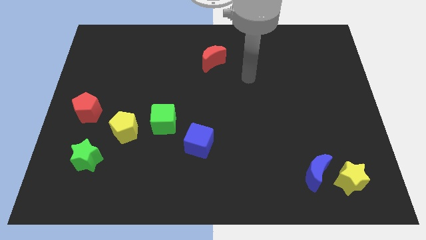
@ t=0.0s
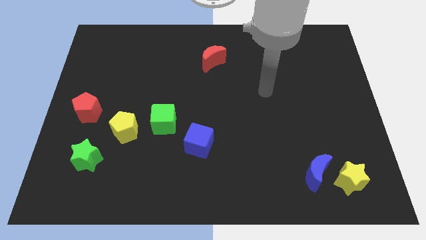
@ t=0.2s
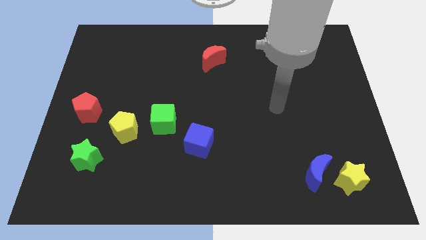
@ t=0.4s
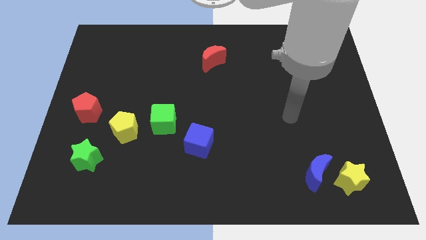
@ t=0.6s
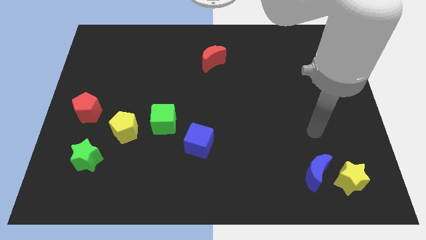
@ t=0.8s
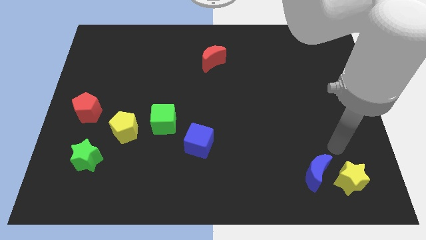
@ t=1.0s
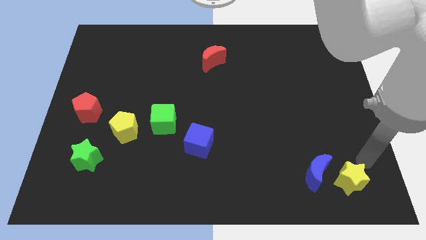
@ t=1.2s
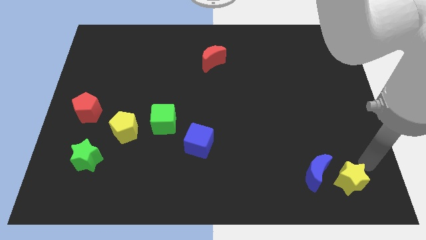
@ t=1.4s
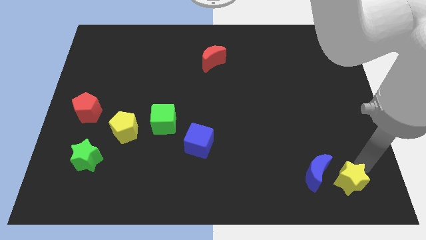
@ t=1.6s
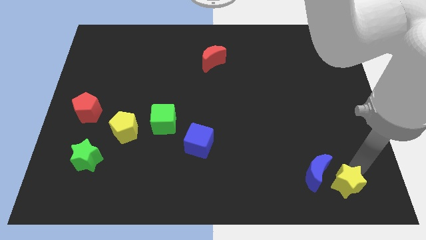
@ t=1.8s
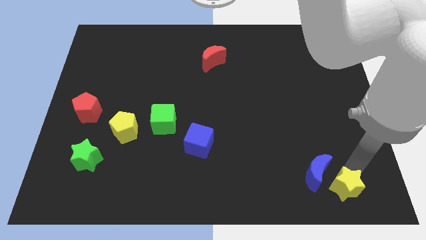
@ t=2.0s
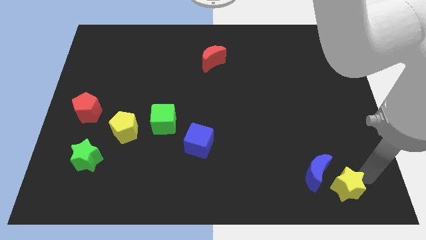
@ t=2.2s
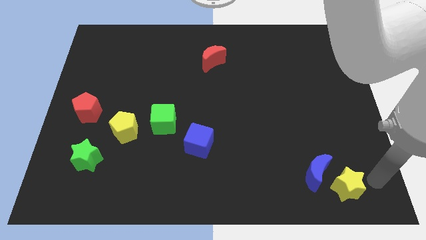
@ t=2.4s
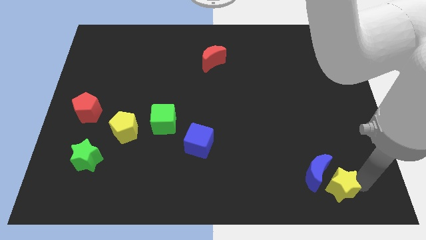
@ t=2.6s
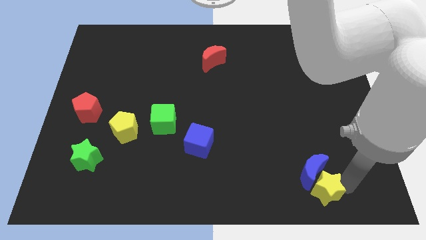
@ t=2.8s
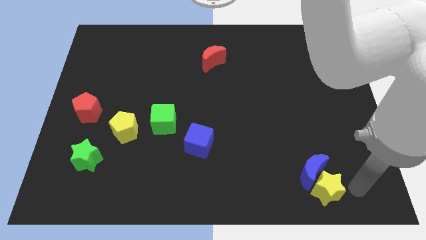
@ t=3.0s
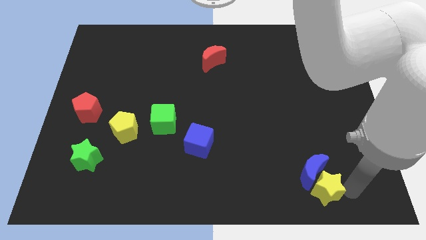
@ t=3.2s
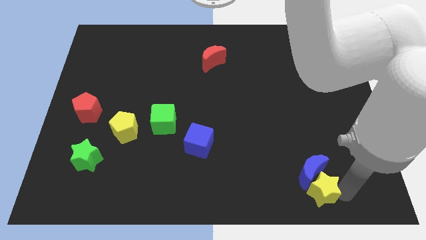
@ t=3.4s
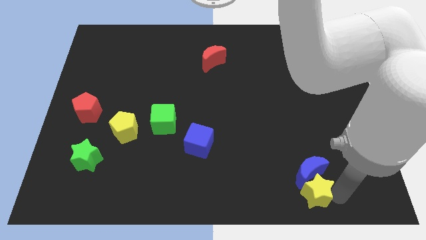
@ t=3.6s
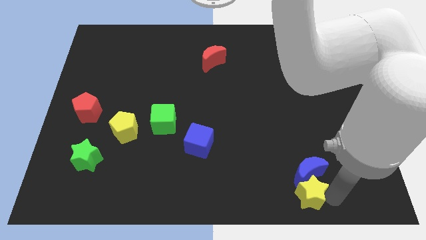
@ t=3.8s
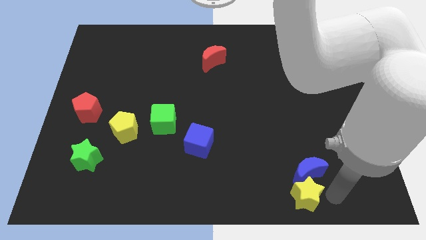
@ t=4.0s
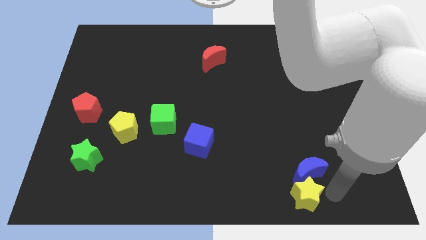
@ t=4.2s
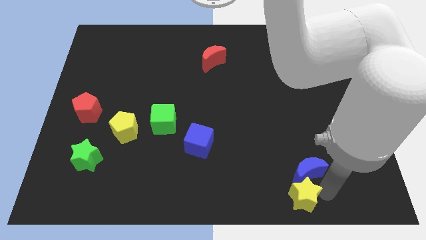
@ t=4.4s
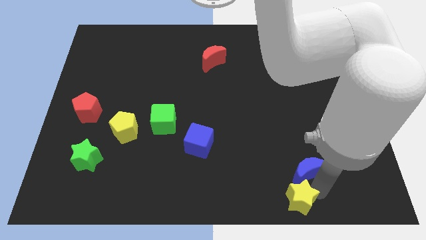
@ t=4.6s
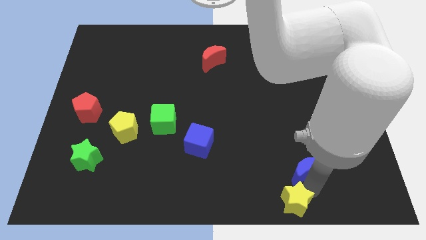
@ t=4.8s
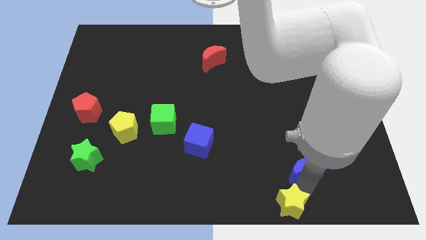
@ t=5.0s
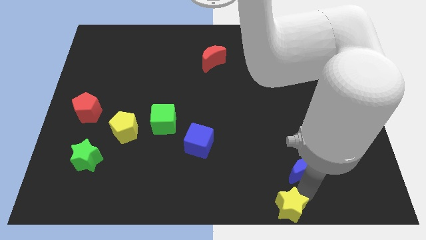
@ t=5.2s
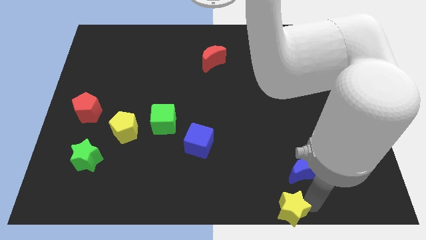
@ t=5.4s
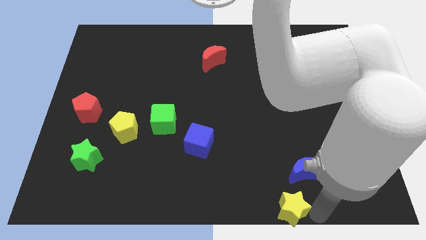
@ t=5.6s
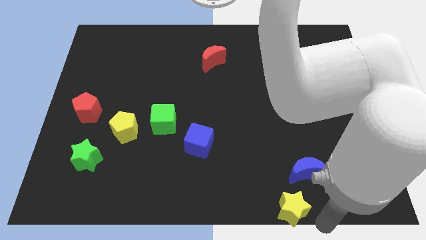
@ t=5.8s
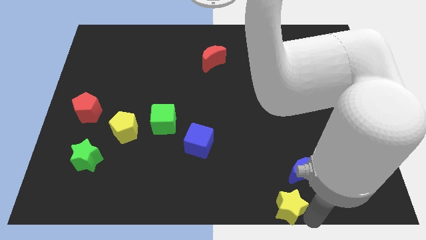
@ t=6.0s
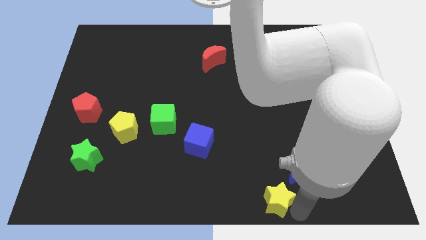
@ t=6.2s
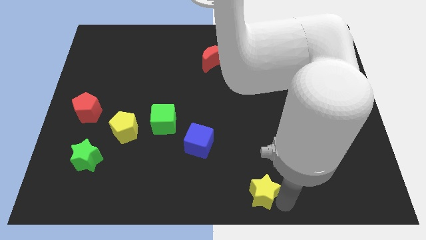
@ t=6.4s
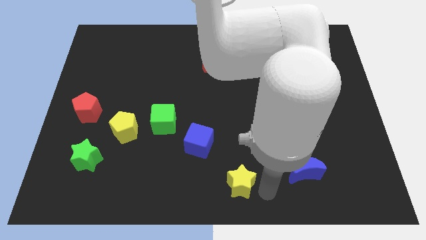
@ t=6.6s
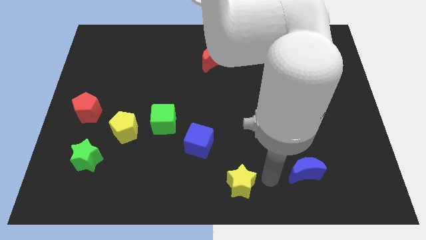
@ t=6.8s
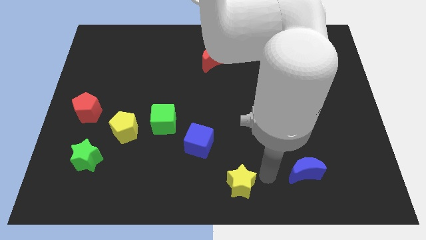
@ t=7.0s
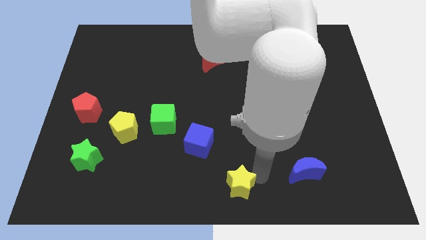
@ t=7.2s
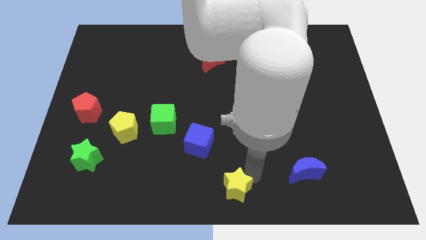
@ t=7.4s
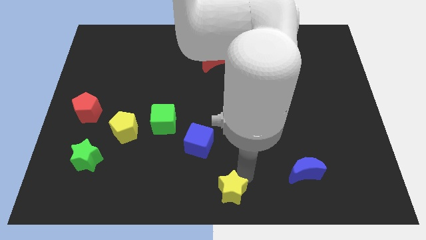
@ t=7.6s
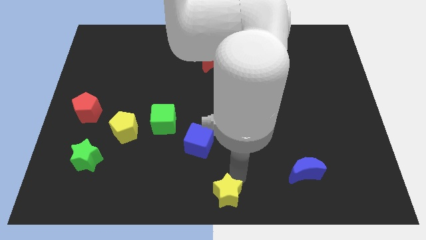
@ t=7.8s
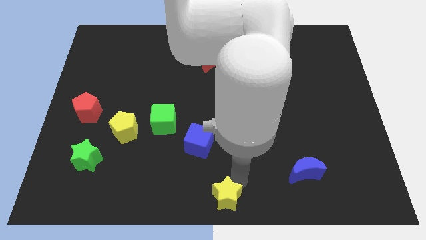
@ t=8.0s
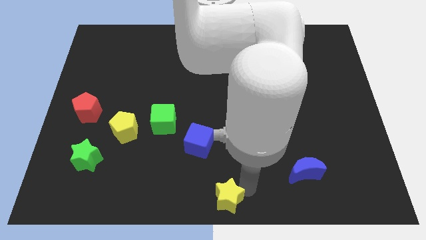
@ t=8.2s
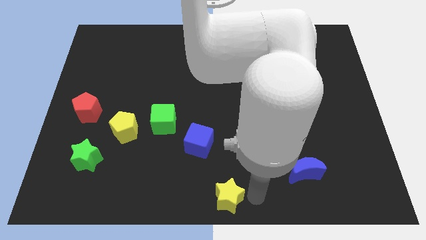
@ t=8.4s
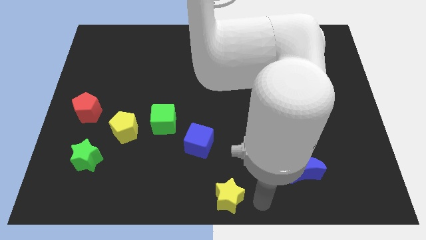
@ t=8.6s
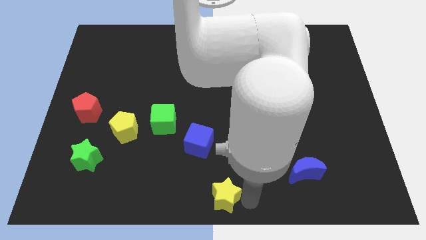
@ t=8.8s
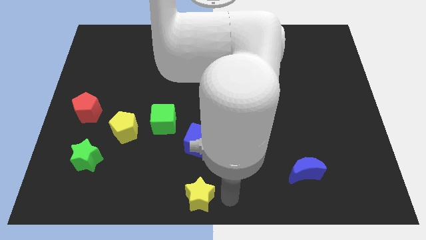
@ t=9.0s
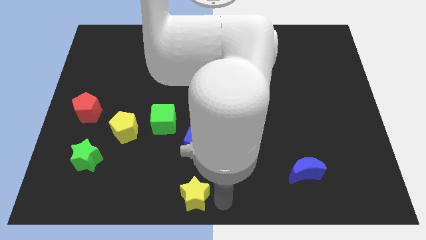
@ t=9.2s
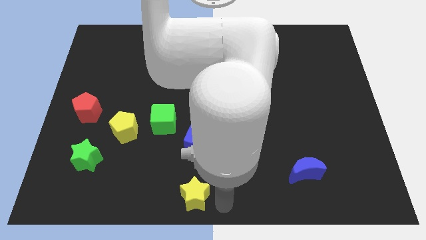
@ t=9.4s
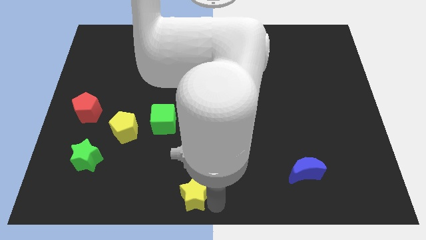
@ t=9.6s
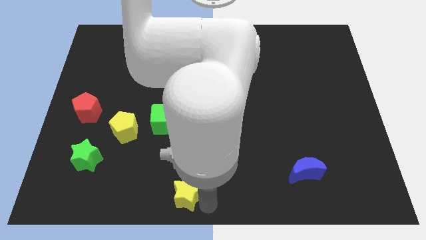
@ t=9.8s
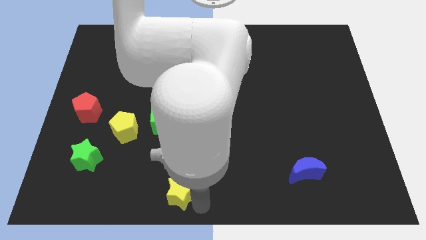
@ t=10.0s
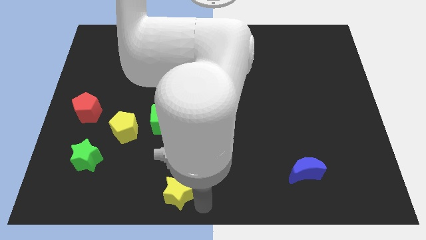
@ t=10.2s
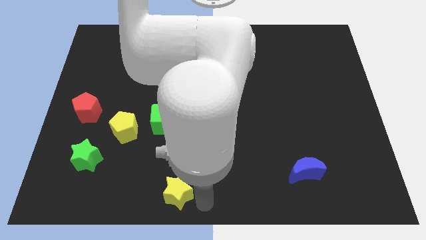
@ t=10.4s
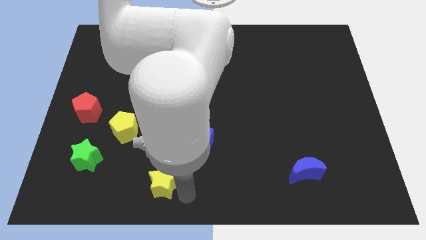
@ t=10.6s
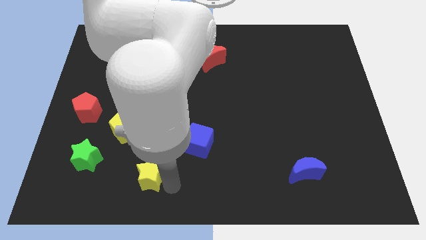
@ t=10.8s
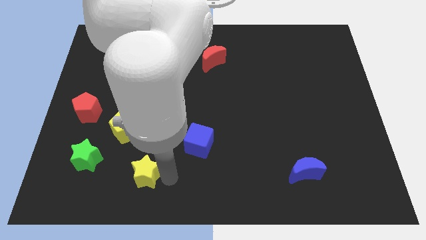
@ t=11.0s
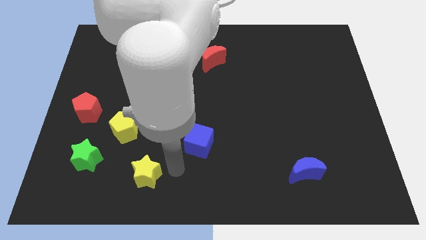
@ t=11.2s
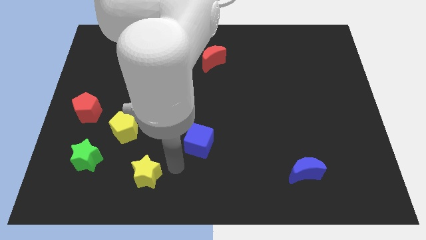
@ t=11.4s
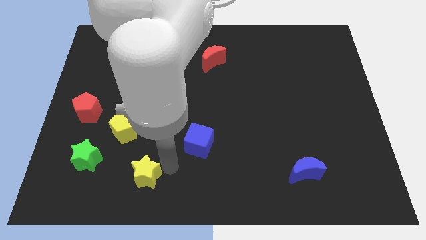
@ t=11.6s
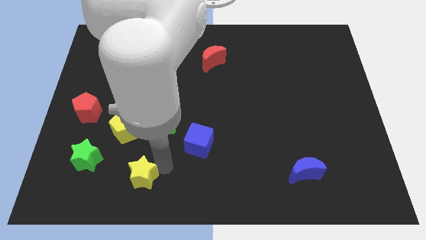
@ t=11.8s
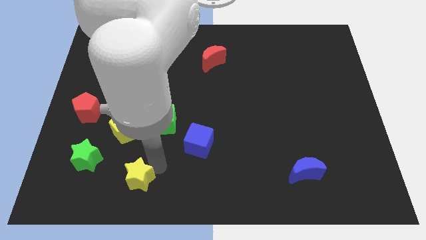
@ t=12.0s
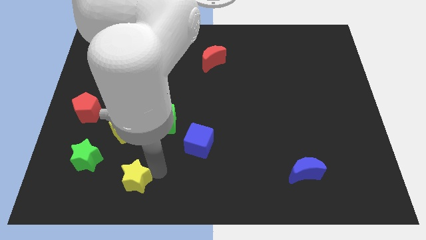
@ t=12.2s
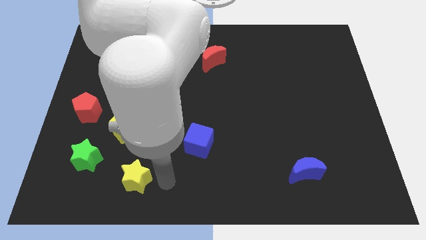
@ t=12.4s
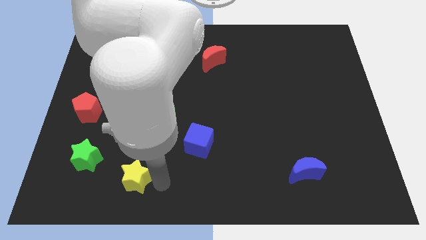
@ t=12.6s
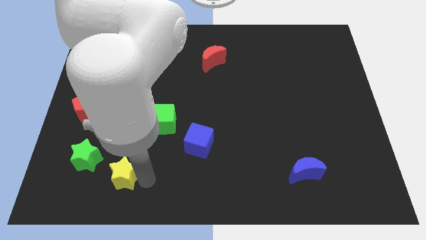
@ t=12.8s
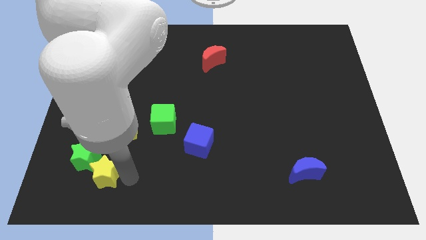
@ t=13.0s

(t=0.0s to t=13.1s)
put the yellow star next to the green star

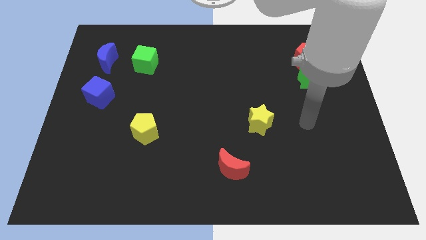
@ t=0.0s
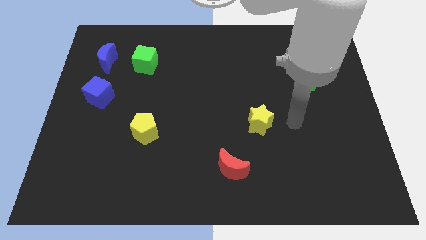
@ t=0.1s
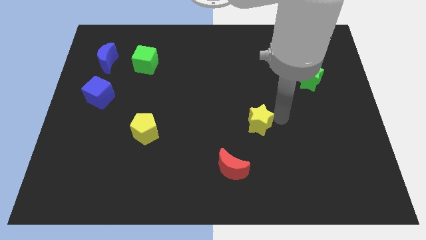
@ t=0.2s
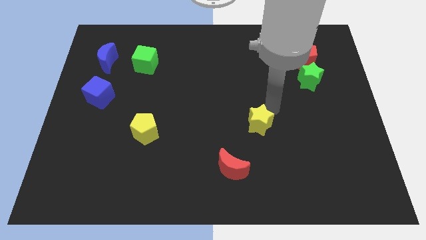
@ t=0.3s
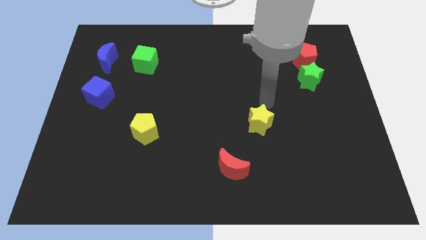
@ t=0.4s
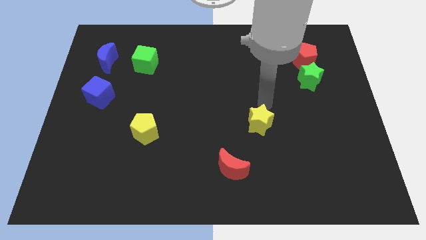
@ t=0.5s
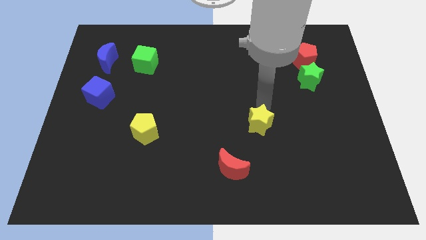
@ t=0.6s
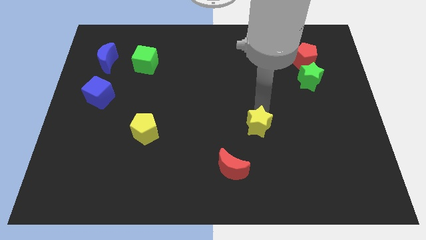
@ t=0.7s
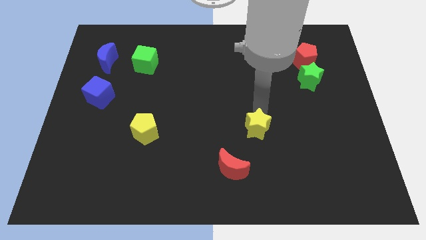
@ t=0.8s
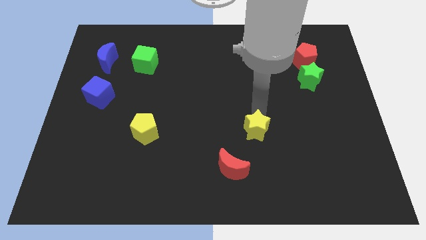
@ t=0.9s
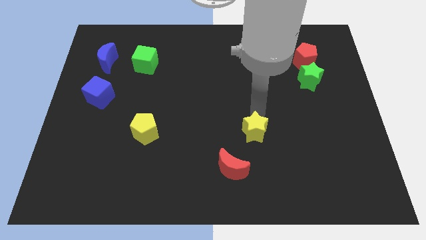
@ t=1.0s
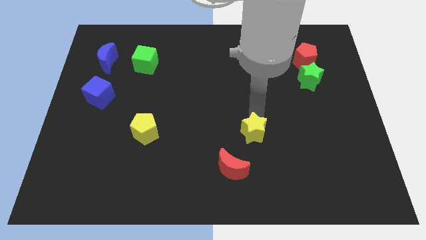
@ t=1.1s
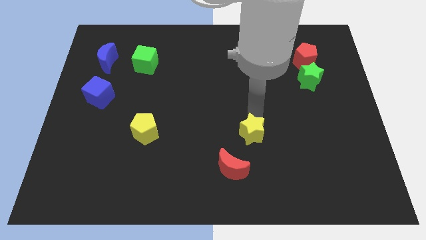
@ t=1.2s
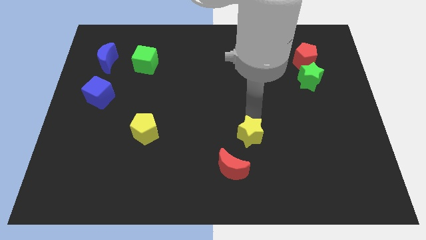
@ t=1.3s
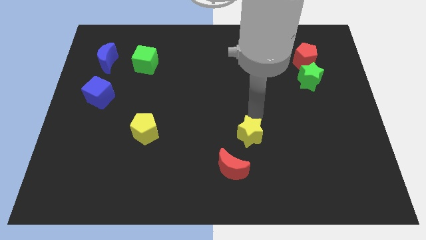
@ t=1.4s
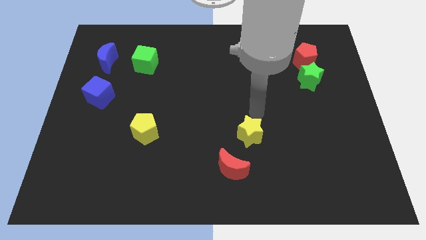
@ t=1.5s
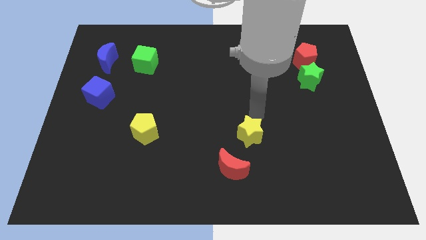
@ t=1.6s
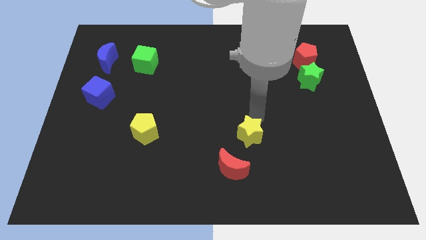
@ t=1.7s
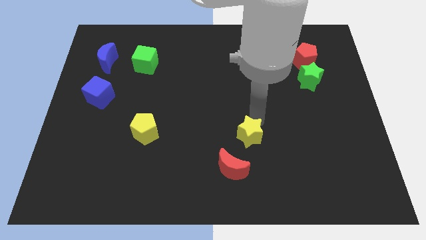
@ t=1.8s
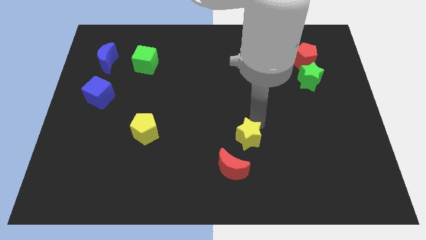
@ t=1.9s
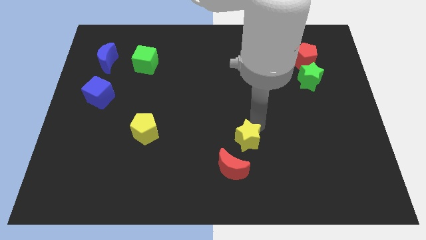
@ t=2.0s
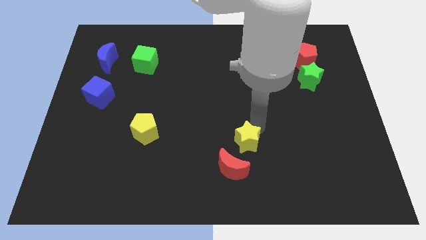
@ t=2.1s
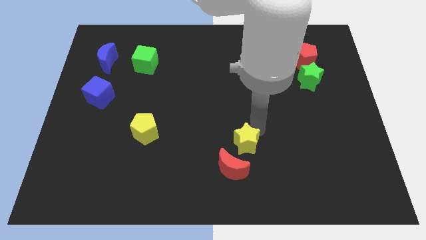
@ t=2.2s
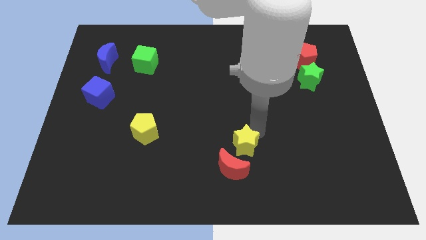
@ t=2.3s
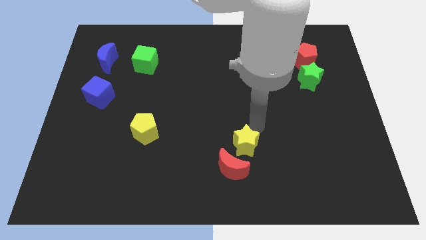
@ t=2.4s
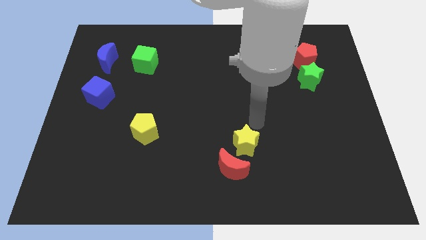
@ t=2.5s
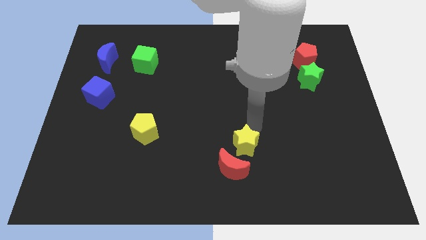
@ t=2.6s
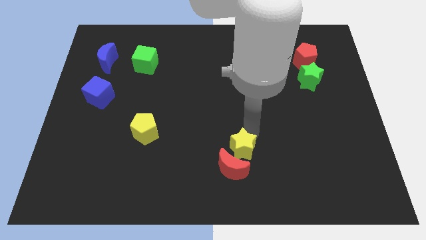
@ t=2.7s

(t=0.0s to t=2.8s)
put the yellow star to the red moon
